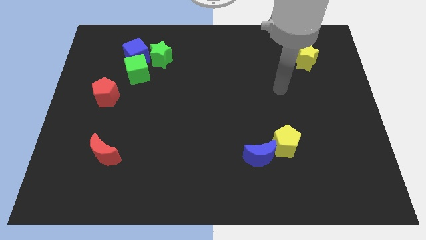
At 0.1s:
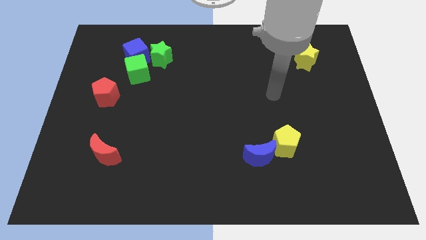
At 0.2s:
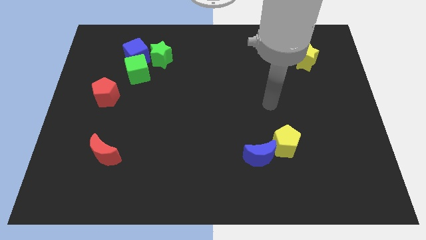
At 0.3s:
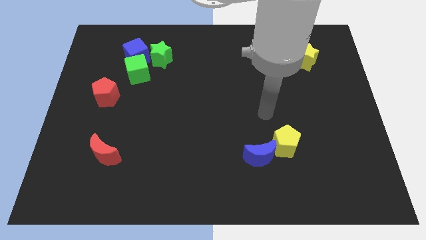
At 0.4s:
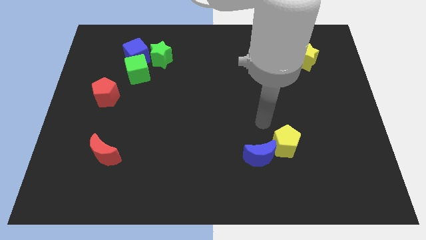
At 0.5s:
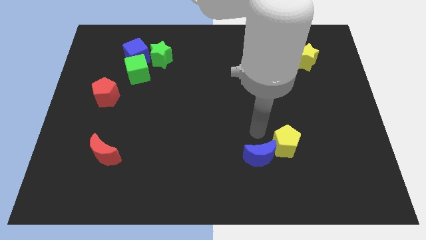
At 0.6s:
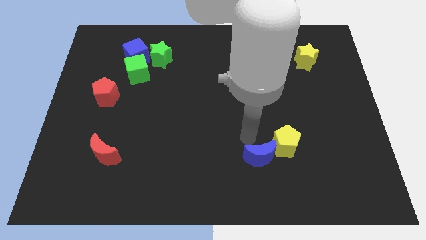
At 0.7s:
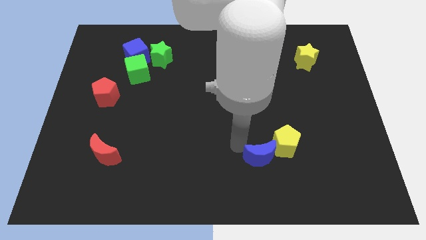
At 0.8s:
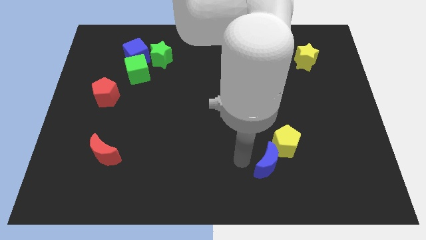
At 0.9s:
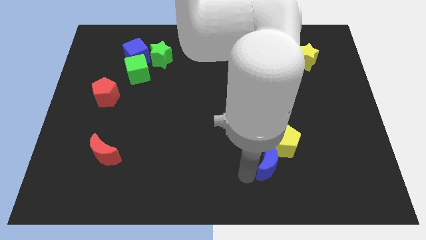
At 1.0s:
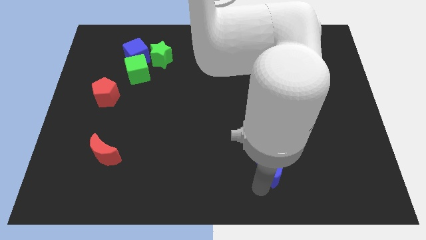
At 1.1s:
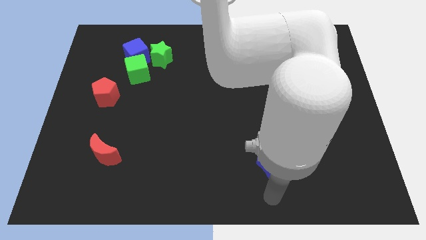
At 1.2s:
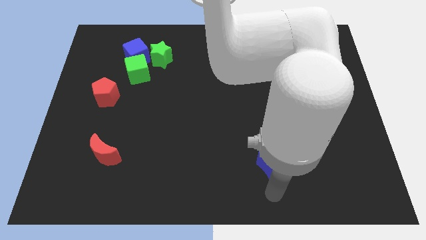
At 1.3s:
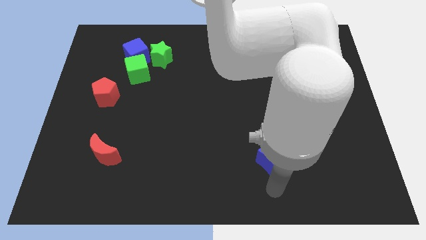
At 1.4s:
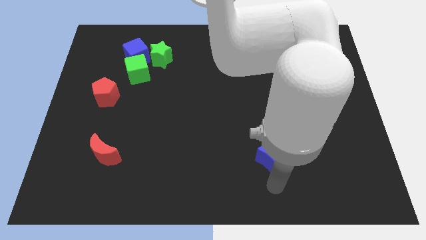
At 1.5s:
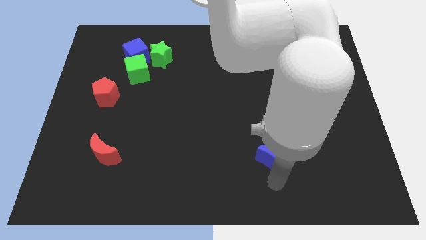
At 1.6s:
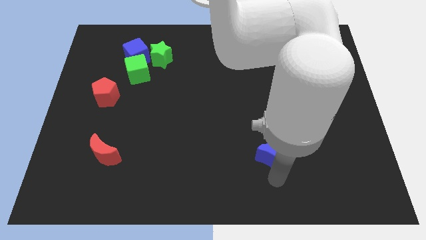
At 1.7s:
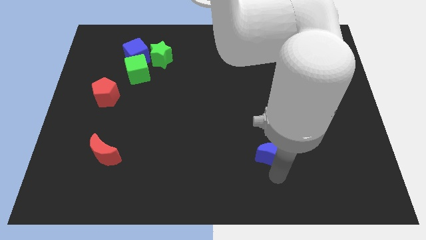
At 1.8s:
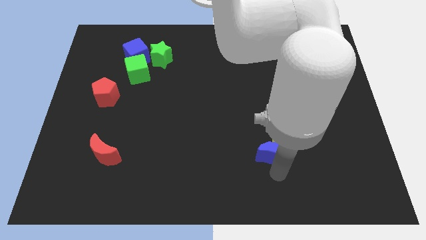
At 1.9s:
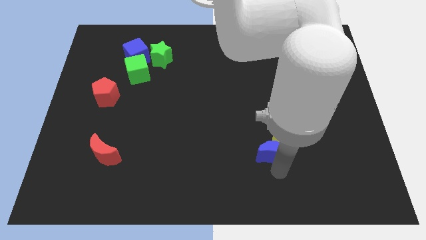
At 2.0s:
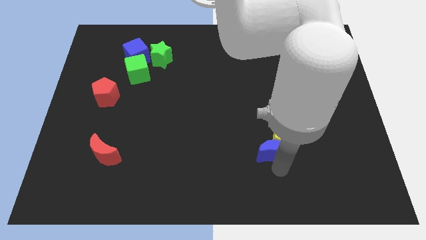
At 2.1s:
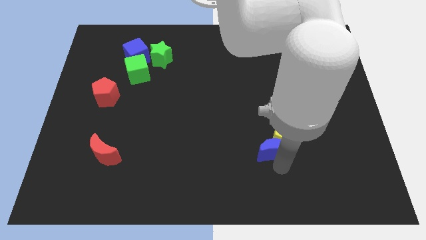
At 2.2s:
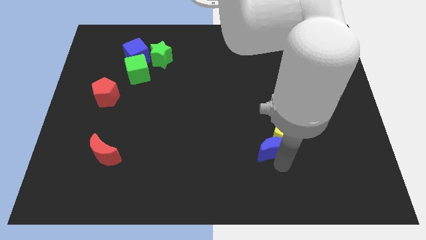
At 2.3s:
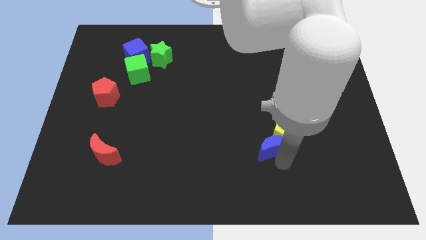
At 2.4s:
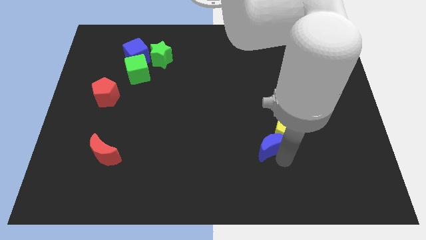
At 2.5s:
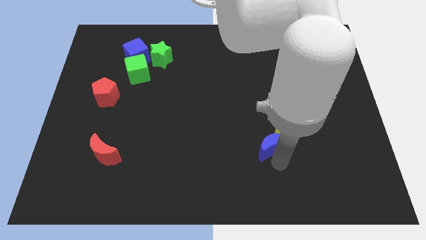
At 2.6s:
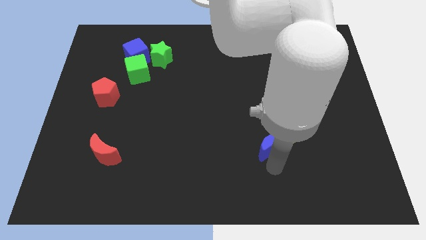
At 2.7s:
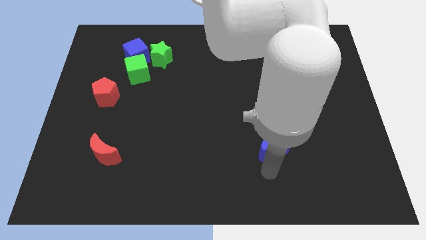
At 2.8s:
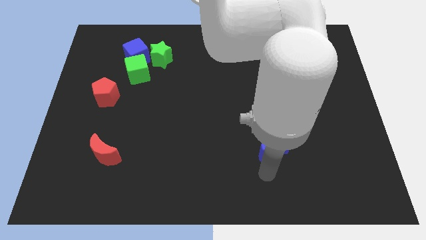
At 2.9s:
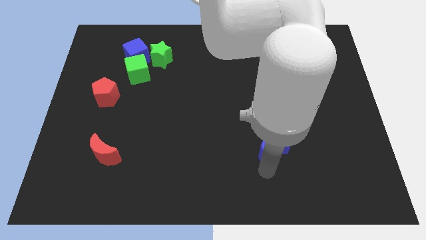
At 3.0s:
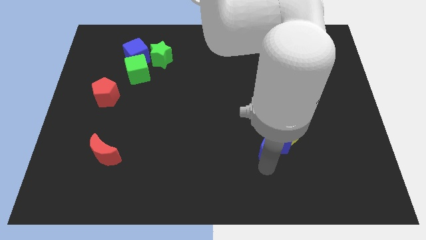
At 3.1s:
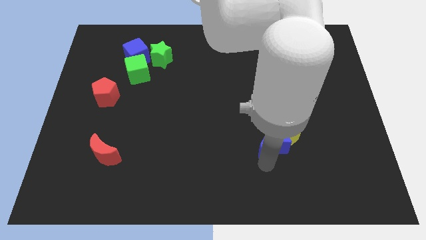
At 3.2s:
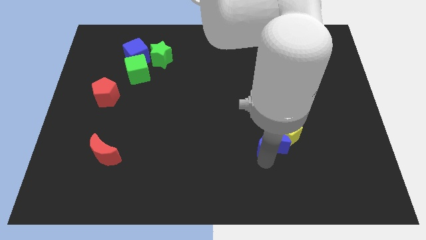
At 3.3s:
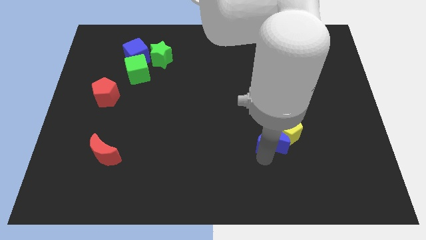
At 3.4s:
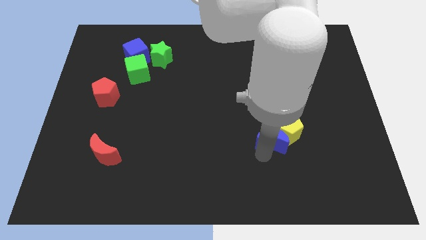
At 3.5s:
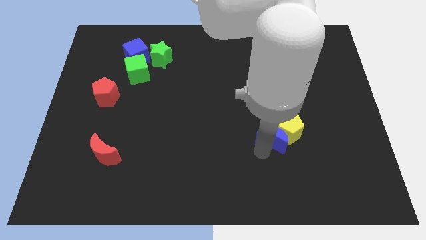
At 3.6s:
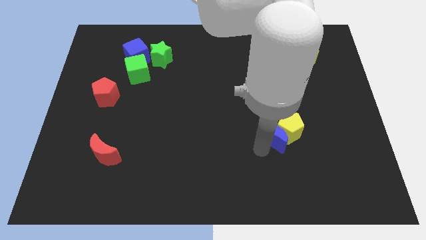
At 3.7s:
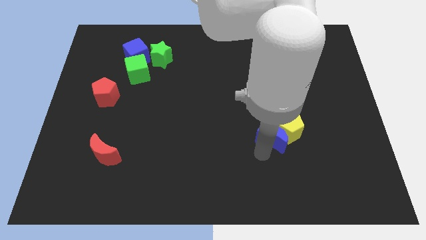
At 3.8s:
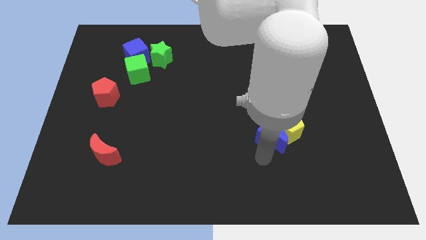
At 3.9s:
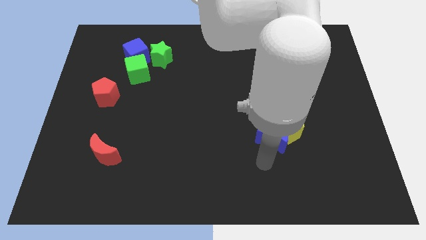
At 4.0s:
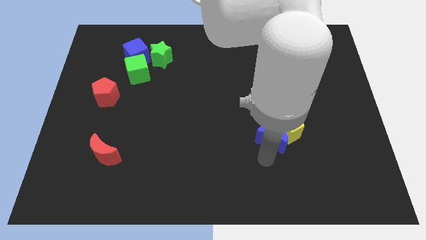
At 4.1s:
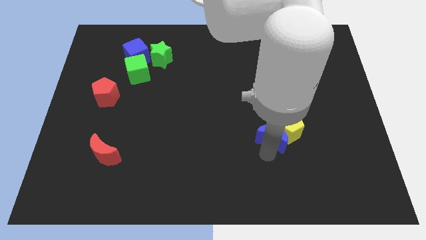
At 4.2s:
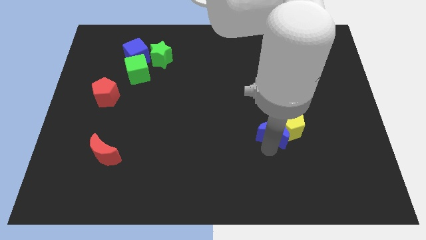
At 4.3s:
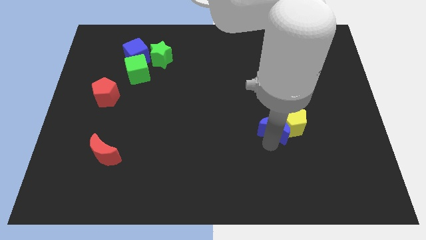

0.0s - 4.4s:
slide the blue moon a bit up and to the right diagonally

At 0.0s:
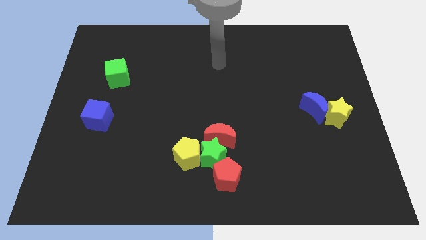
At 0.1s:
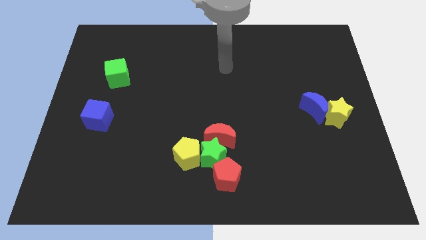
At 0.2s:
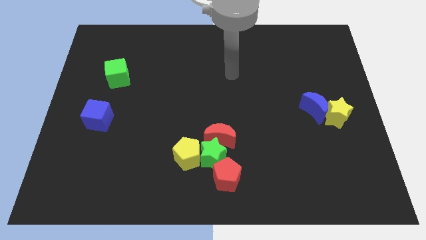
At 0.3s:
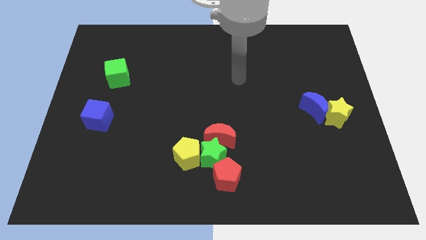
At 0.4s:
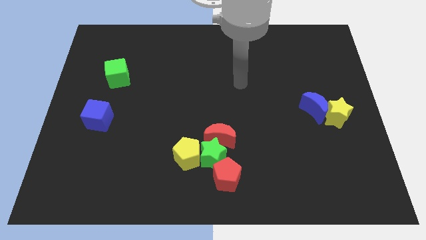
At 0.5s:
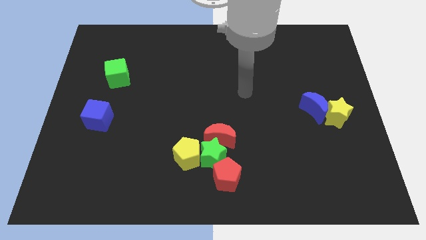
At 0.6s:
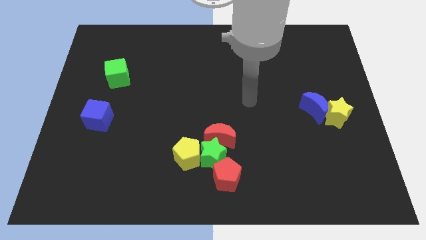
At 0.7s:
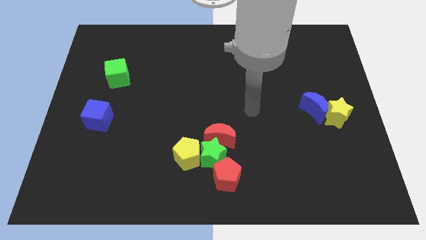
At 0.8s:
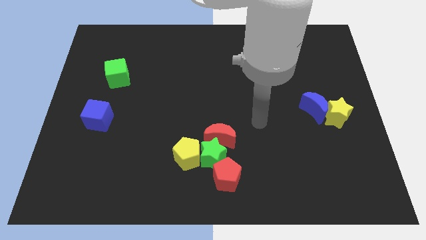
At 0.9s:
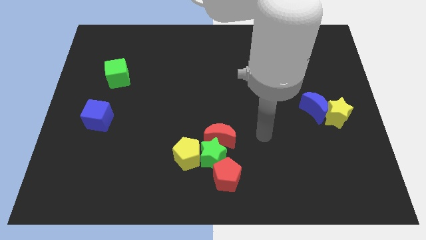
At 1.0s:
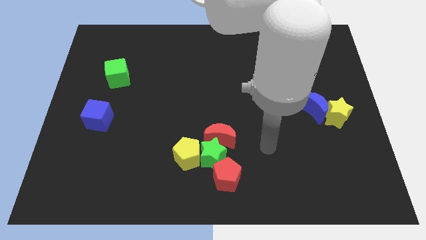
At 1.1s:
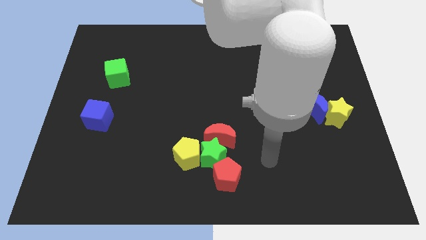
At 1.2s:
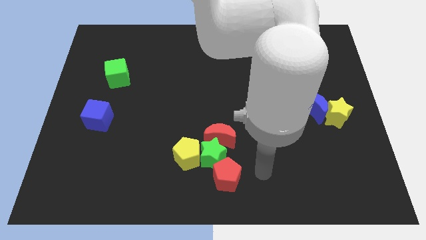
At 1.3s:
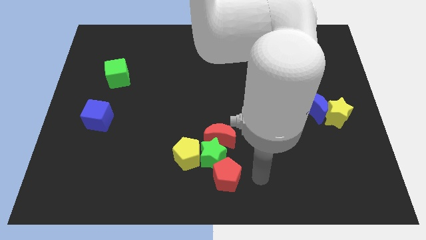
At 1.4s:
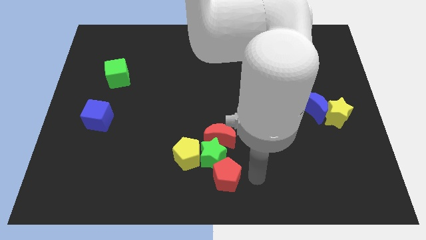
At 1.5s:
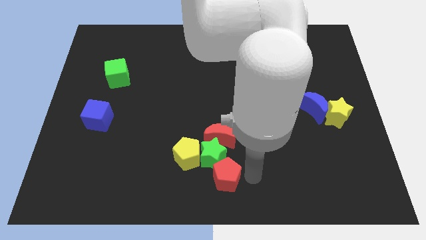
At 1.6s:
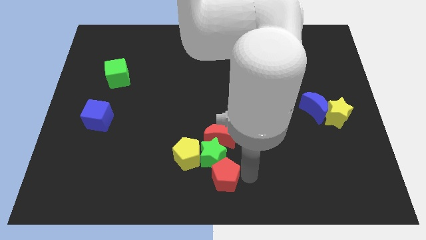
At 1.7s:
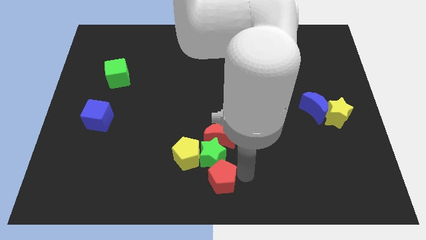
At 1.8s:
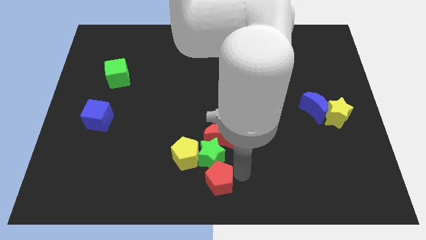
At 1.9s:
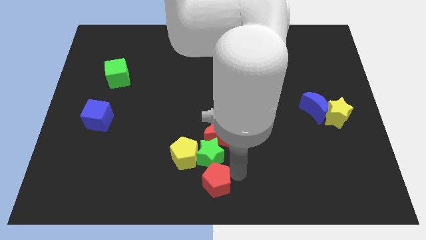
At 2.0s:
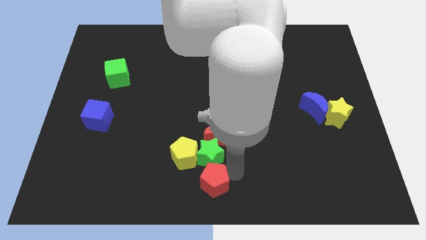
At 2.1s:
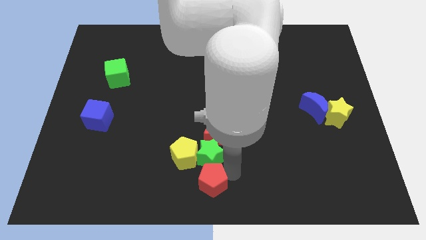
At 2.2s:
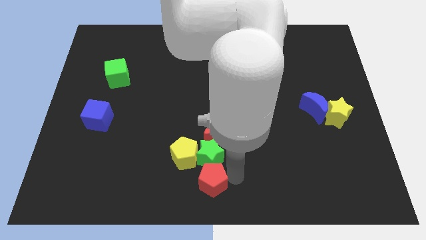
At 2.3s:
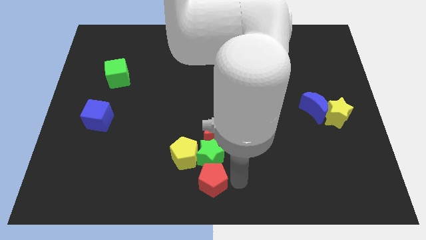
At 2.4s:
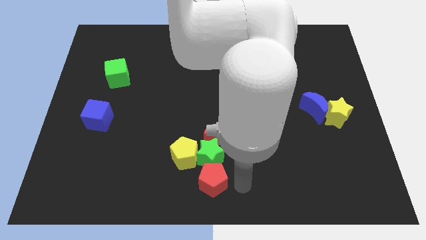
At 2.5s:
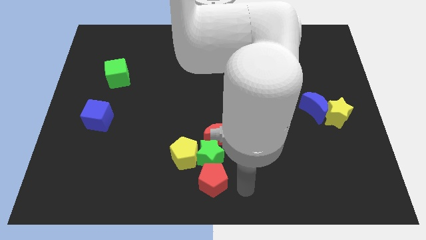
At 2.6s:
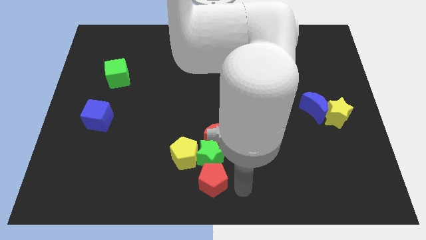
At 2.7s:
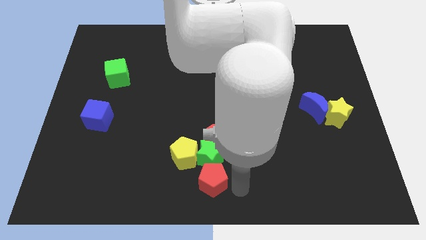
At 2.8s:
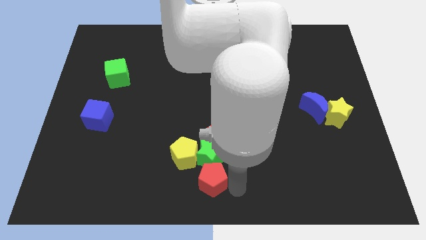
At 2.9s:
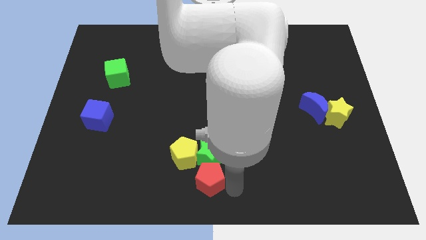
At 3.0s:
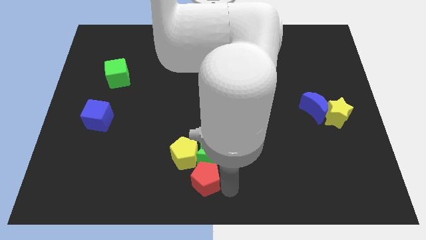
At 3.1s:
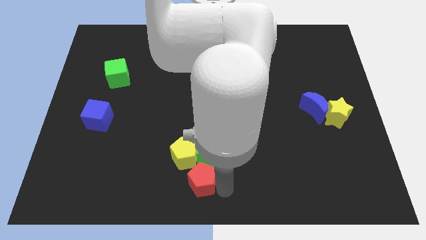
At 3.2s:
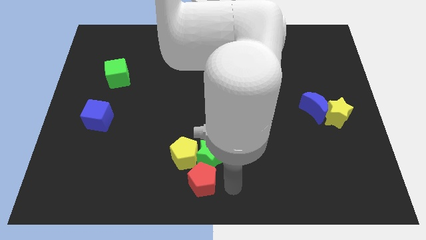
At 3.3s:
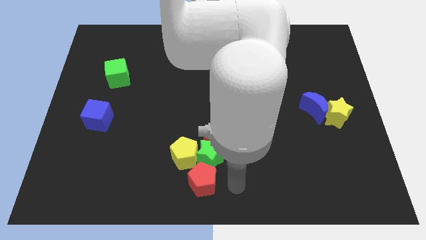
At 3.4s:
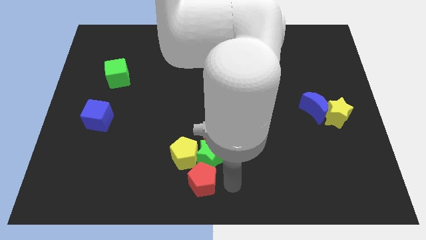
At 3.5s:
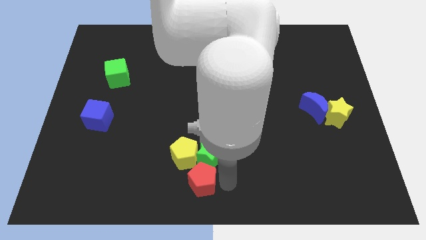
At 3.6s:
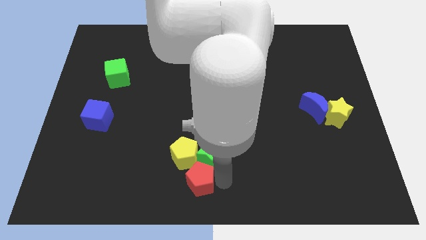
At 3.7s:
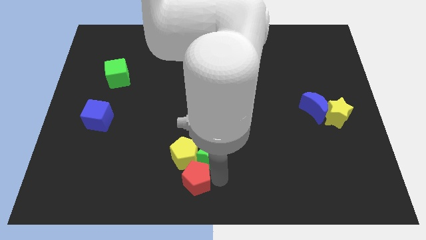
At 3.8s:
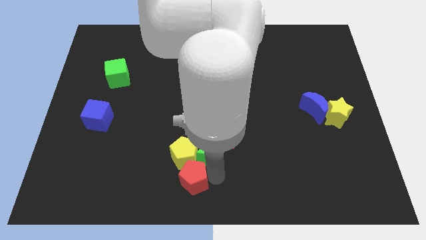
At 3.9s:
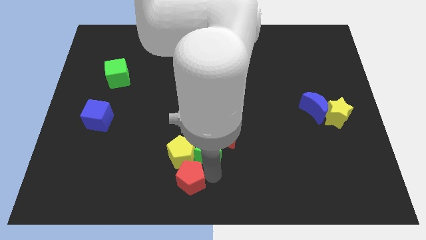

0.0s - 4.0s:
push the red pentagon left a little bit
